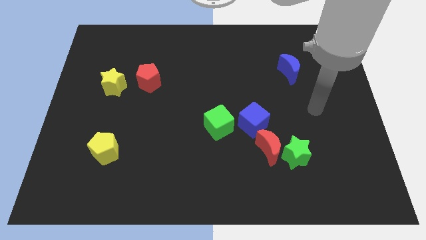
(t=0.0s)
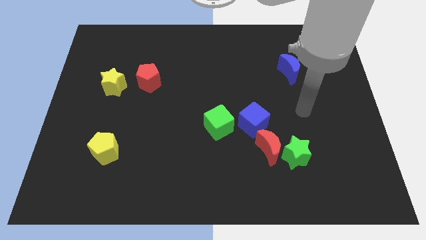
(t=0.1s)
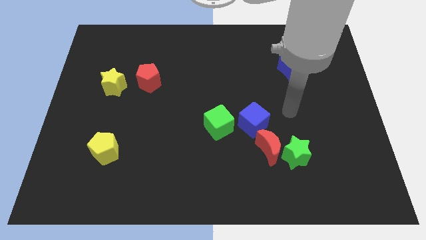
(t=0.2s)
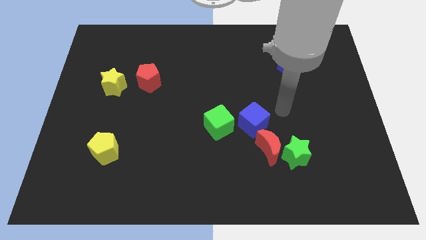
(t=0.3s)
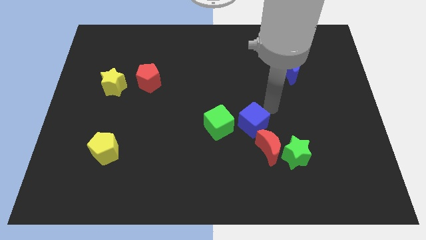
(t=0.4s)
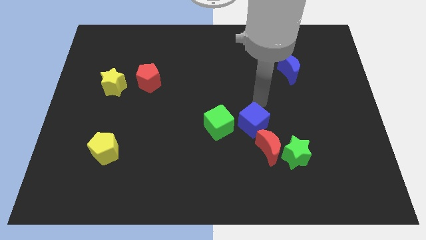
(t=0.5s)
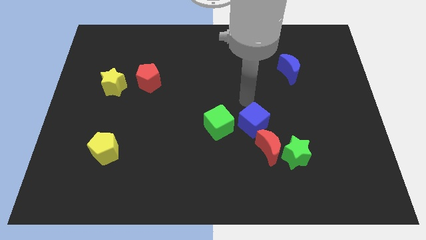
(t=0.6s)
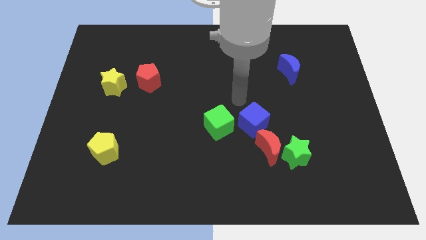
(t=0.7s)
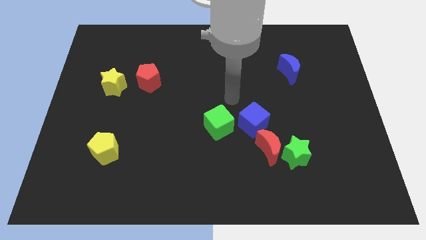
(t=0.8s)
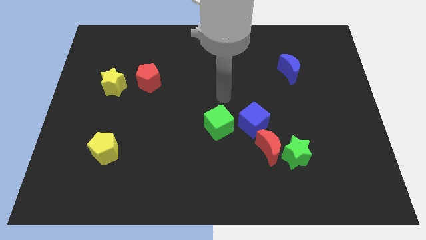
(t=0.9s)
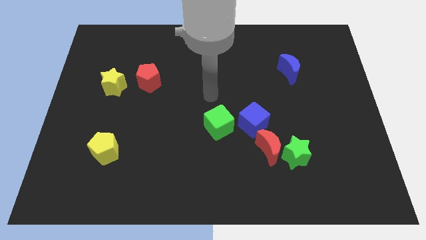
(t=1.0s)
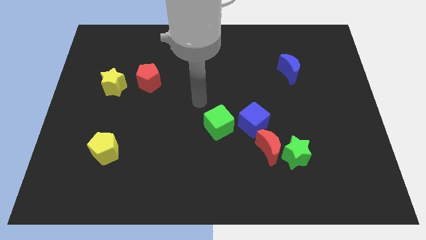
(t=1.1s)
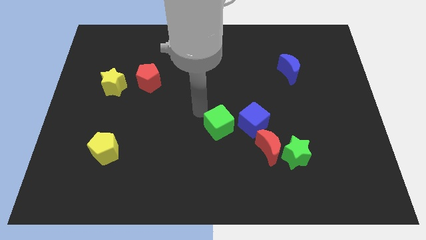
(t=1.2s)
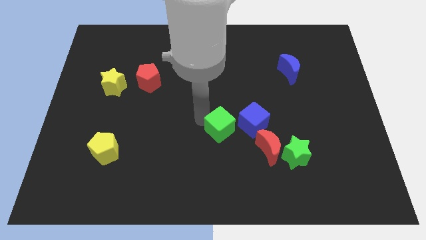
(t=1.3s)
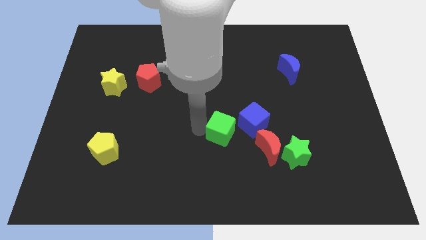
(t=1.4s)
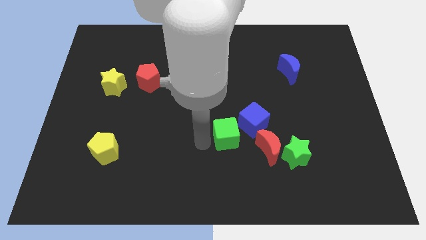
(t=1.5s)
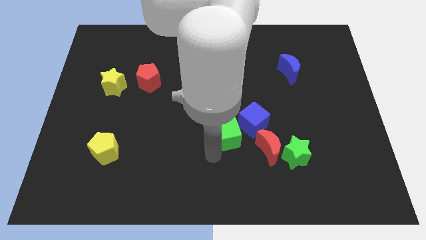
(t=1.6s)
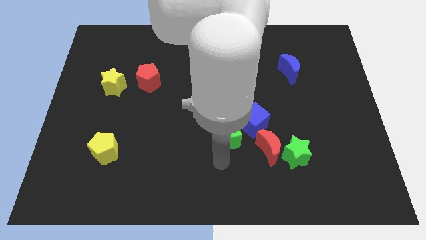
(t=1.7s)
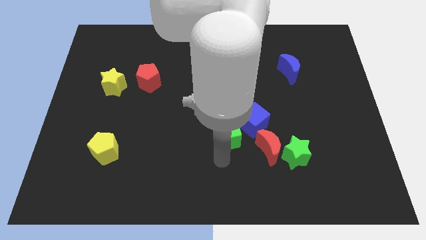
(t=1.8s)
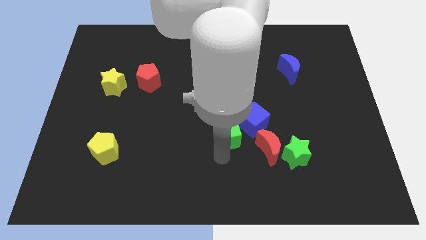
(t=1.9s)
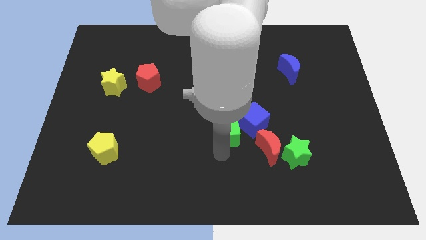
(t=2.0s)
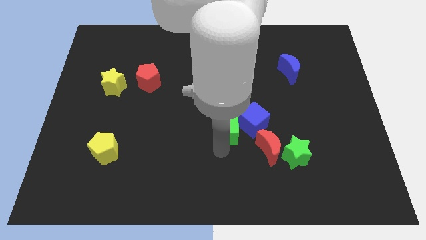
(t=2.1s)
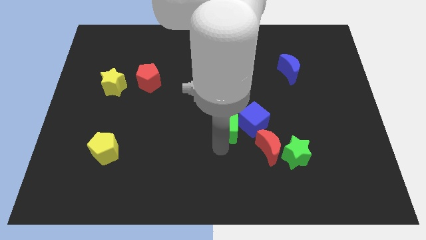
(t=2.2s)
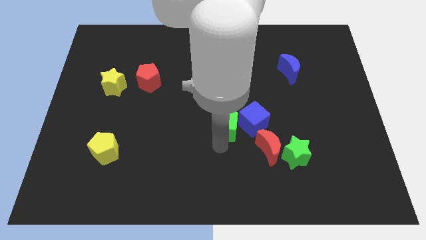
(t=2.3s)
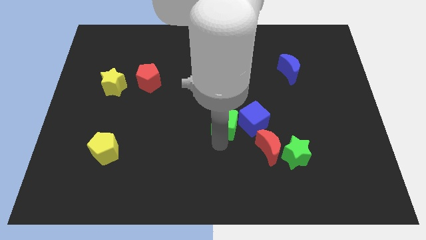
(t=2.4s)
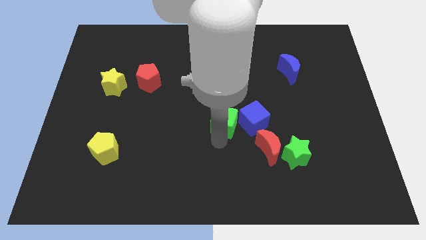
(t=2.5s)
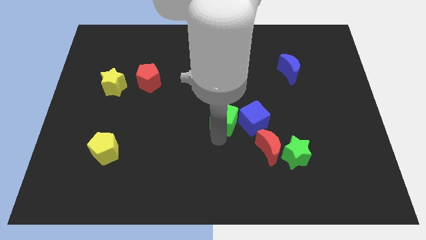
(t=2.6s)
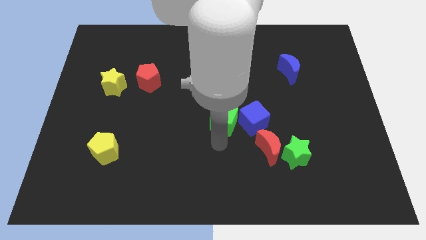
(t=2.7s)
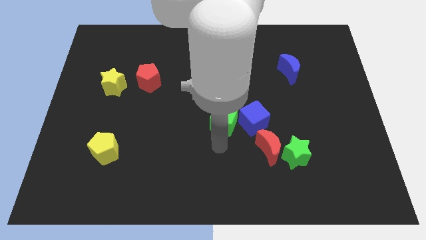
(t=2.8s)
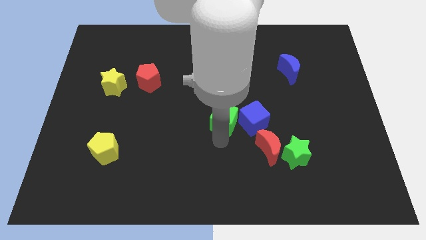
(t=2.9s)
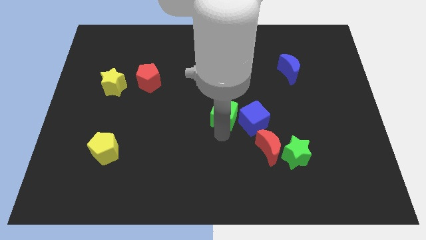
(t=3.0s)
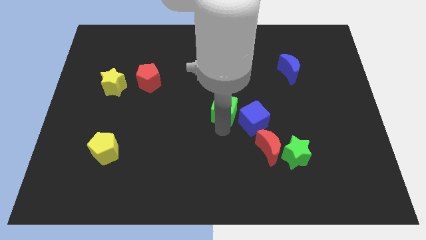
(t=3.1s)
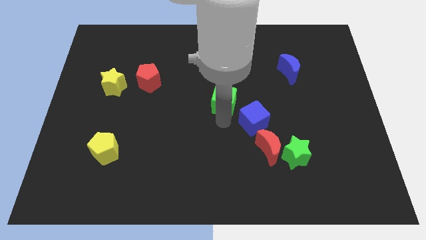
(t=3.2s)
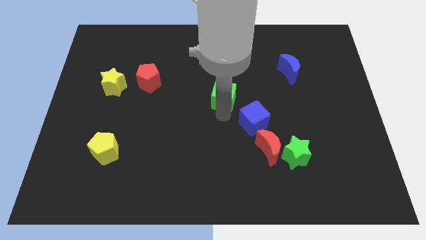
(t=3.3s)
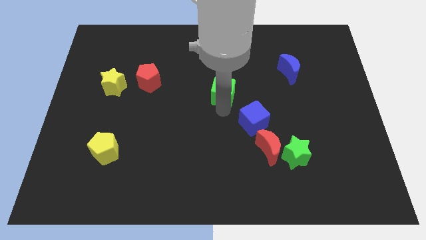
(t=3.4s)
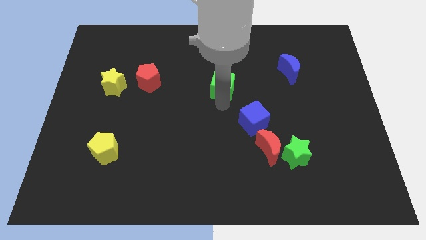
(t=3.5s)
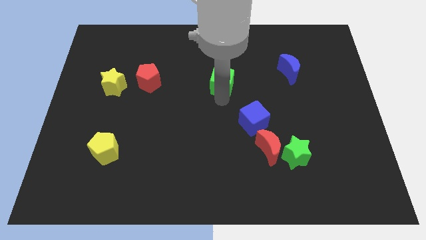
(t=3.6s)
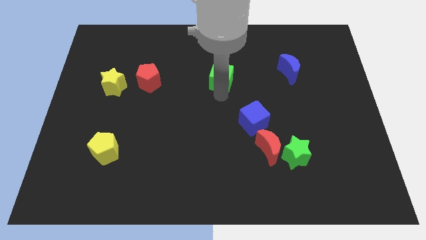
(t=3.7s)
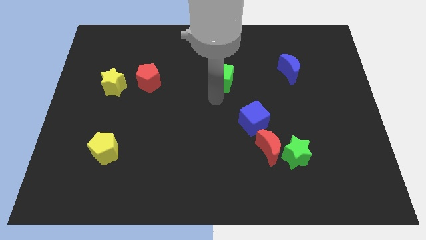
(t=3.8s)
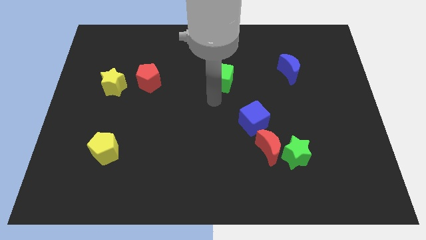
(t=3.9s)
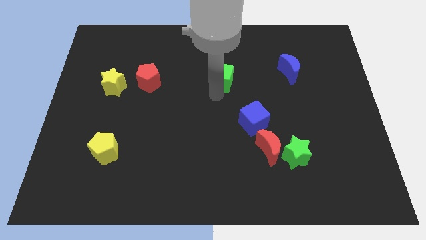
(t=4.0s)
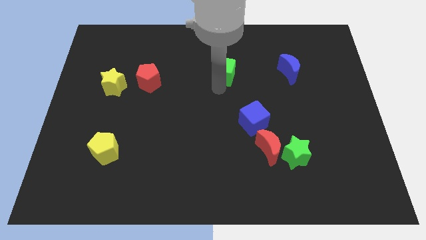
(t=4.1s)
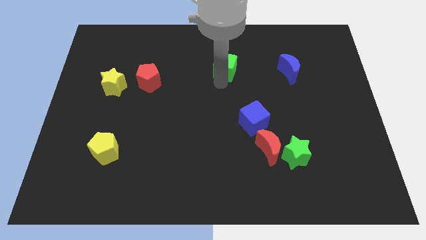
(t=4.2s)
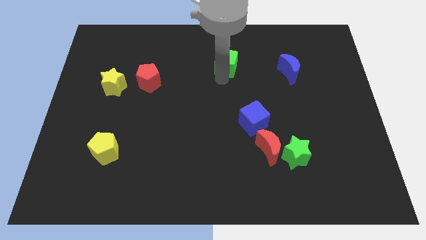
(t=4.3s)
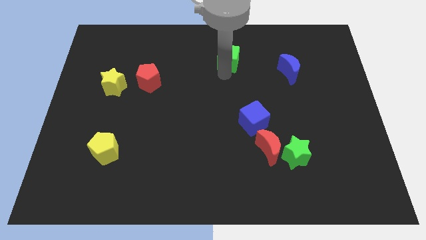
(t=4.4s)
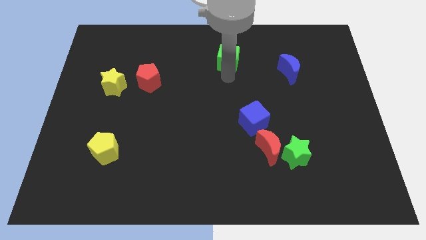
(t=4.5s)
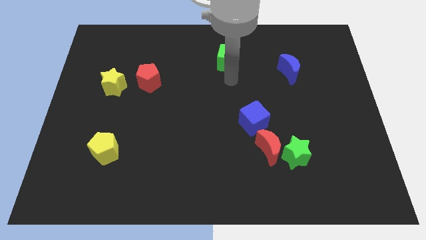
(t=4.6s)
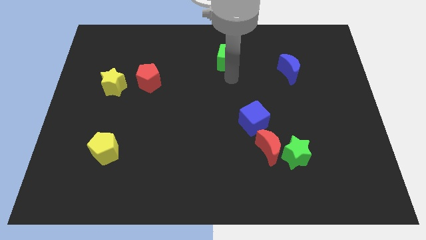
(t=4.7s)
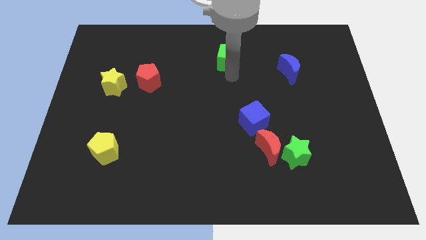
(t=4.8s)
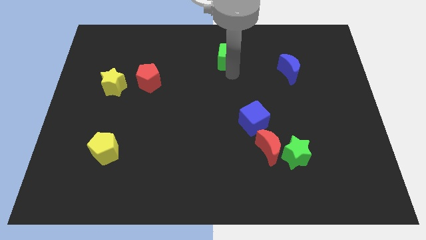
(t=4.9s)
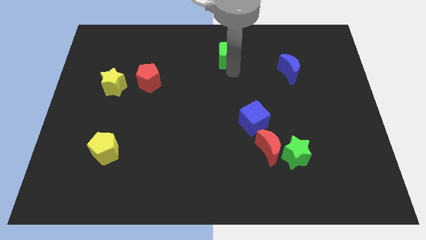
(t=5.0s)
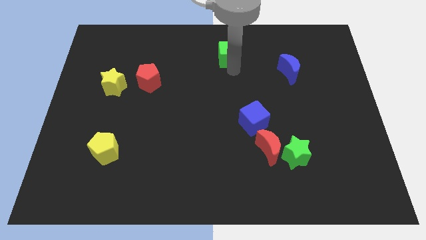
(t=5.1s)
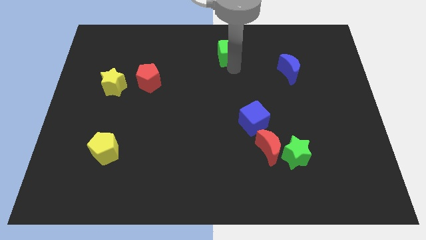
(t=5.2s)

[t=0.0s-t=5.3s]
put the green cube to the towards your base
